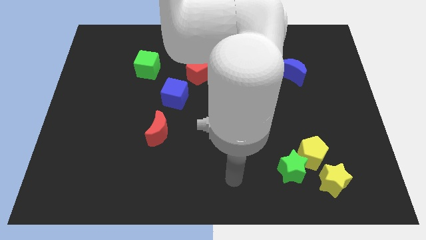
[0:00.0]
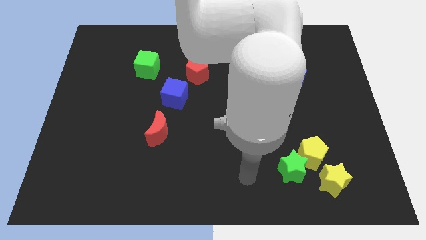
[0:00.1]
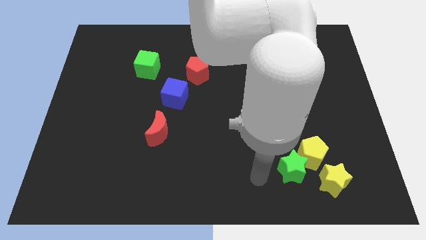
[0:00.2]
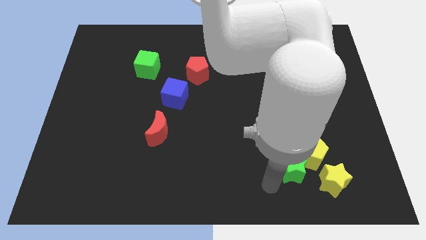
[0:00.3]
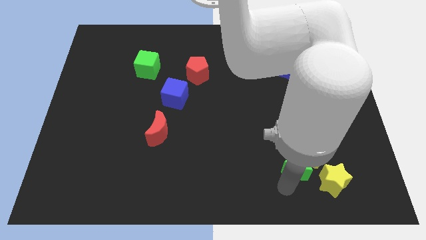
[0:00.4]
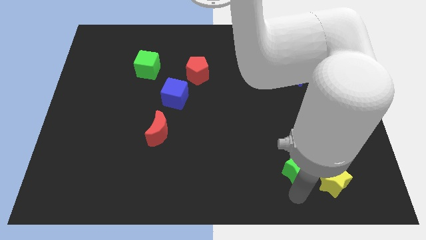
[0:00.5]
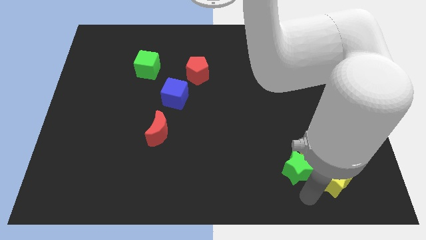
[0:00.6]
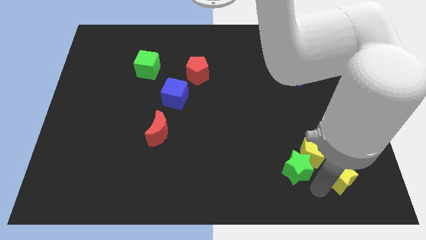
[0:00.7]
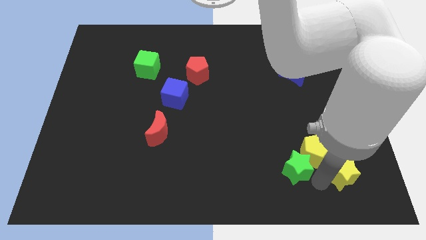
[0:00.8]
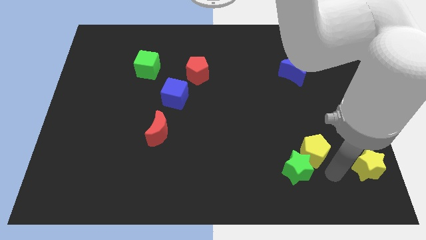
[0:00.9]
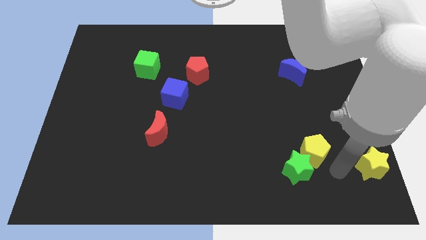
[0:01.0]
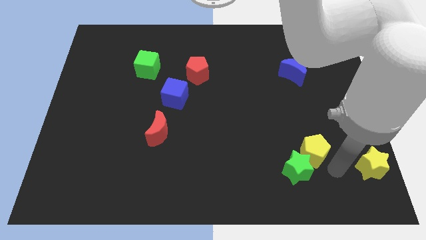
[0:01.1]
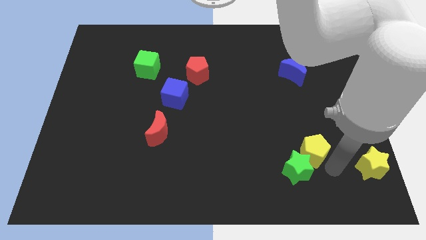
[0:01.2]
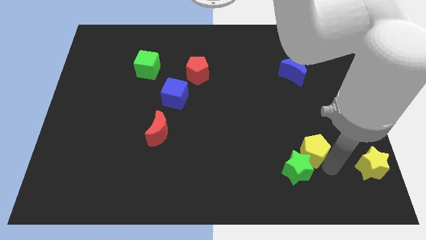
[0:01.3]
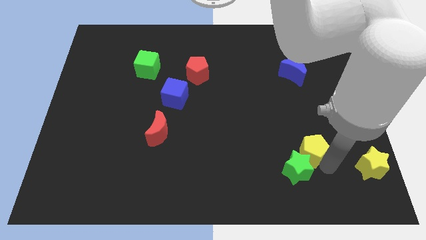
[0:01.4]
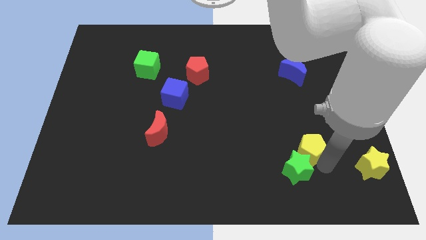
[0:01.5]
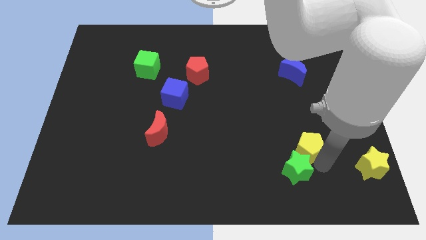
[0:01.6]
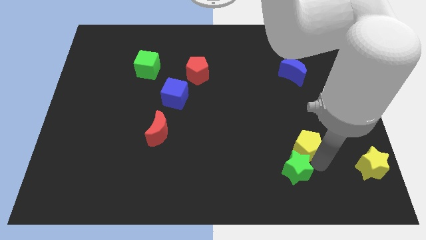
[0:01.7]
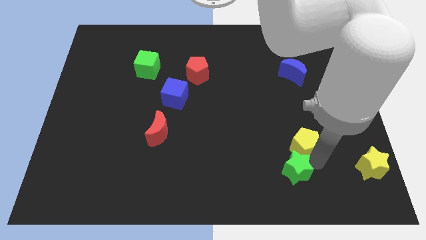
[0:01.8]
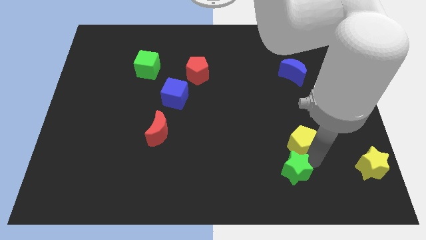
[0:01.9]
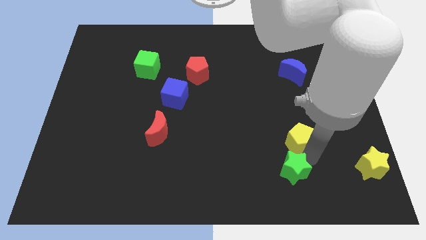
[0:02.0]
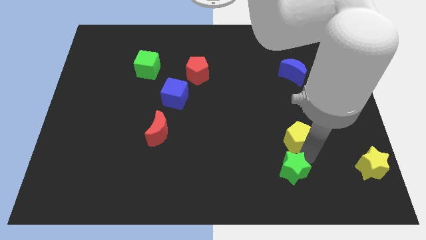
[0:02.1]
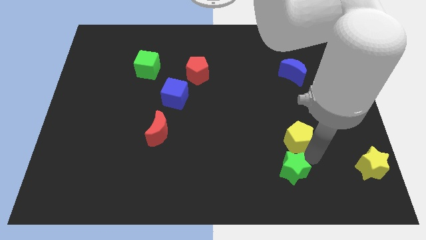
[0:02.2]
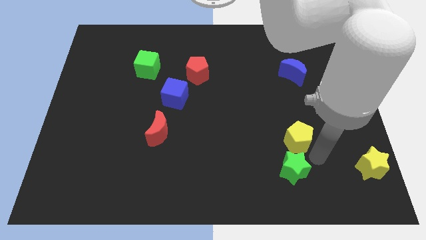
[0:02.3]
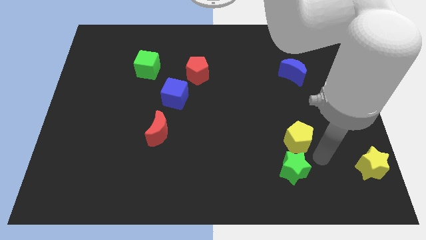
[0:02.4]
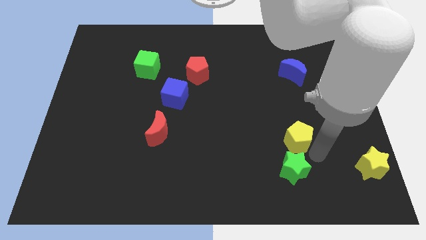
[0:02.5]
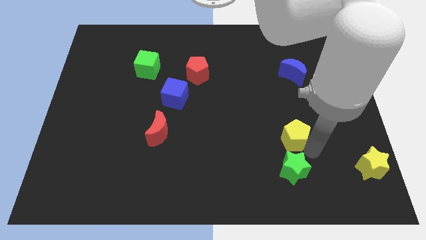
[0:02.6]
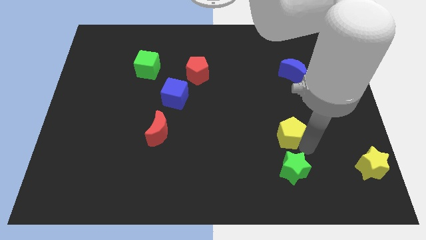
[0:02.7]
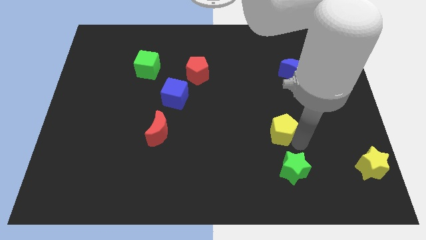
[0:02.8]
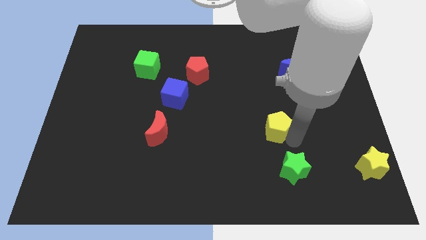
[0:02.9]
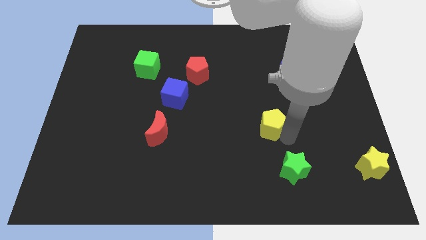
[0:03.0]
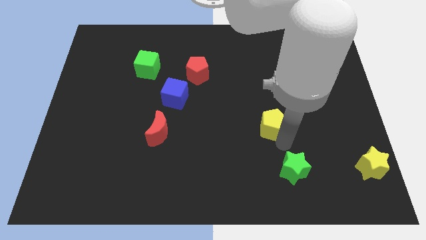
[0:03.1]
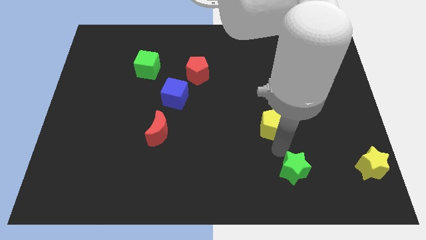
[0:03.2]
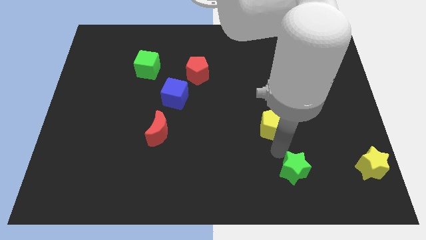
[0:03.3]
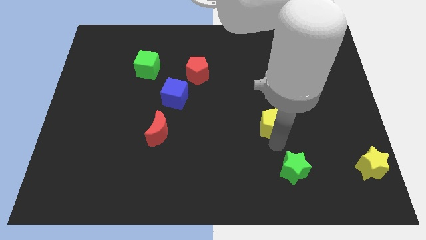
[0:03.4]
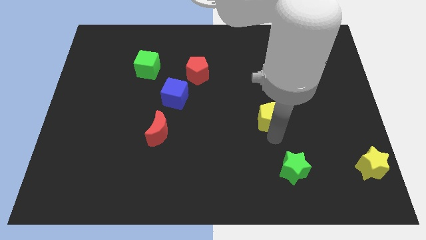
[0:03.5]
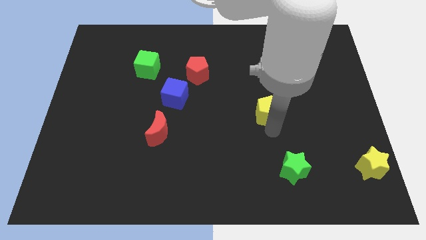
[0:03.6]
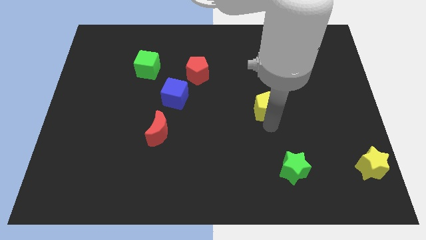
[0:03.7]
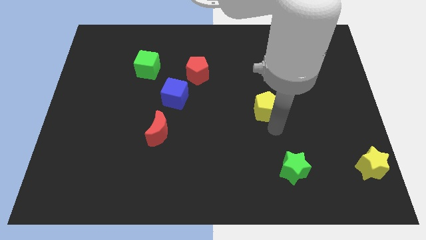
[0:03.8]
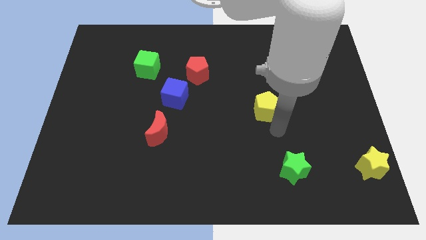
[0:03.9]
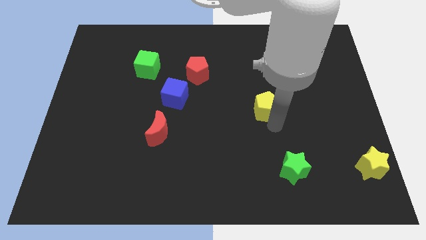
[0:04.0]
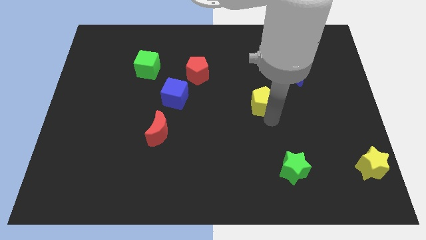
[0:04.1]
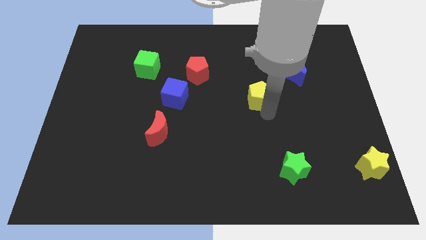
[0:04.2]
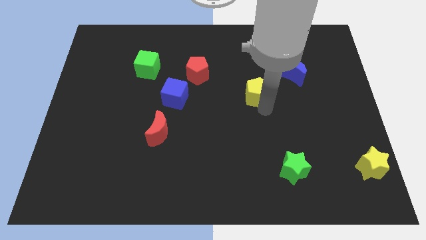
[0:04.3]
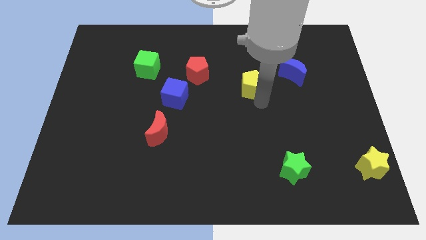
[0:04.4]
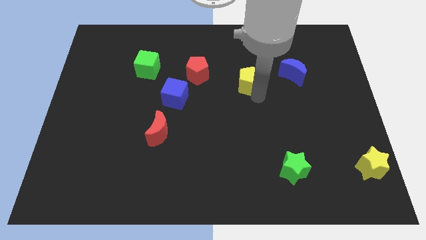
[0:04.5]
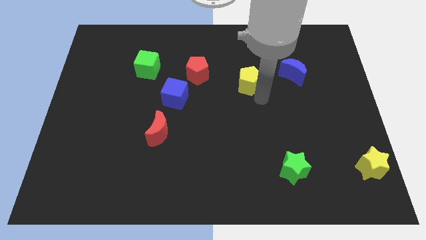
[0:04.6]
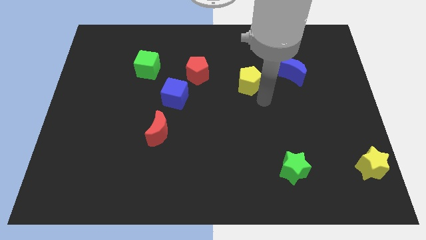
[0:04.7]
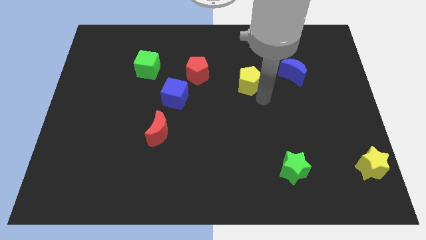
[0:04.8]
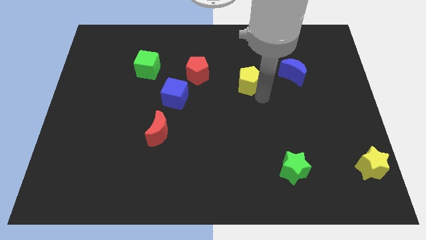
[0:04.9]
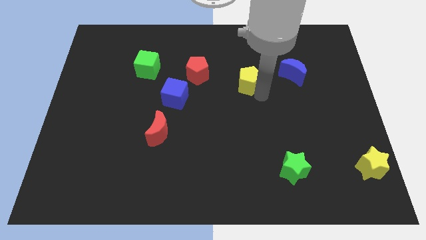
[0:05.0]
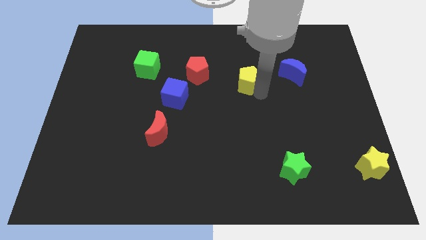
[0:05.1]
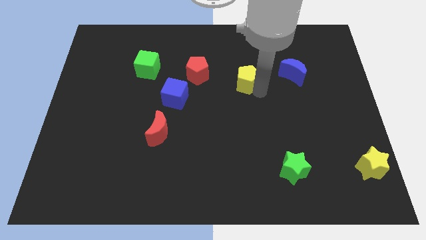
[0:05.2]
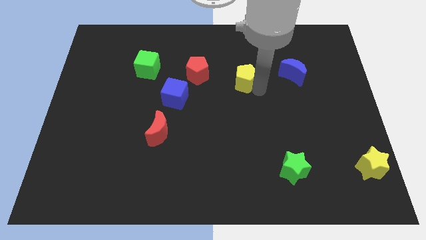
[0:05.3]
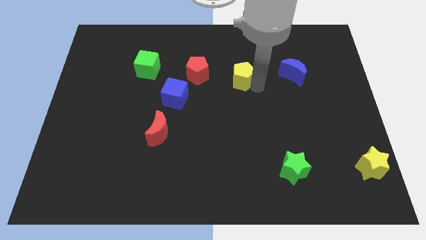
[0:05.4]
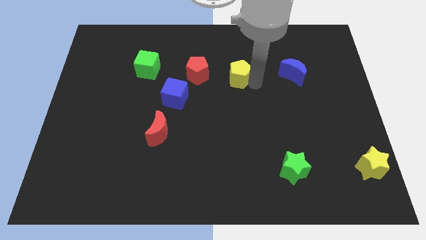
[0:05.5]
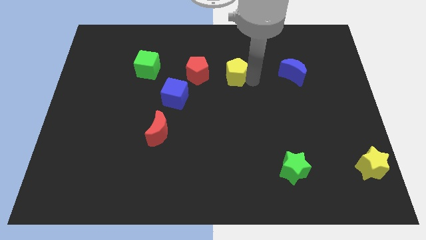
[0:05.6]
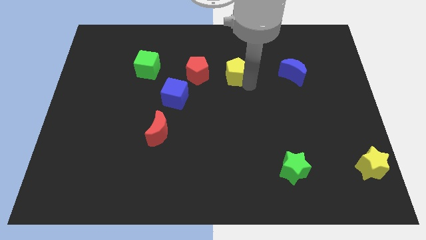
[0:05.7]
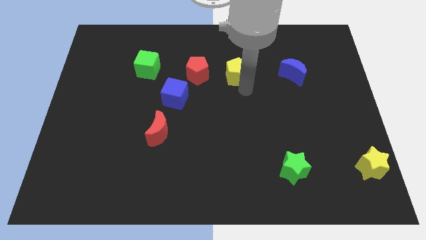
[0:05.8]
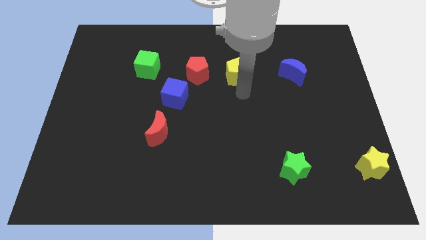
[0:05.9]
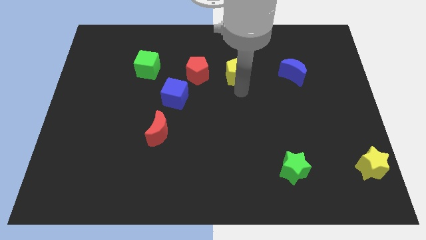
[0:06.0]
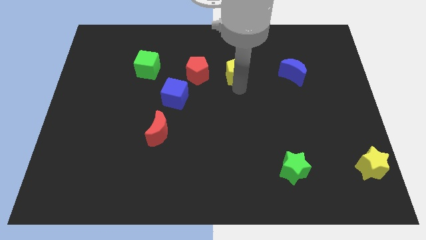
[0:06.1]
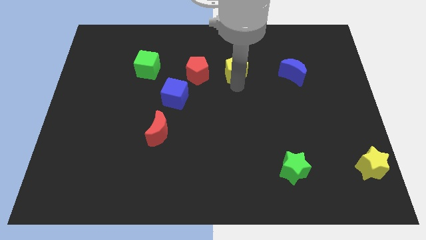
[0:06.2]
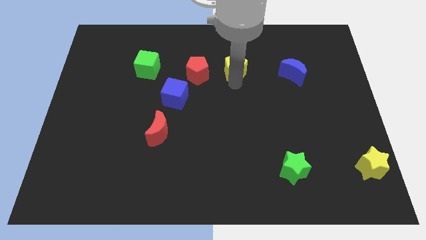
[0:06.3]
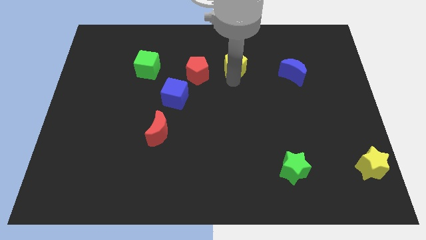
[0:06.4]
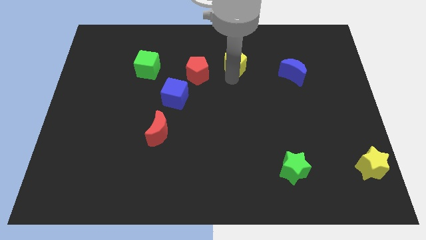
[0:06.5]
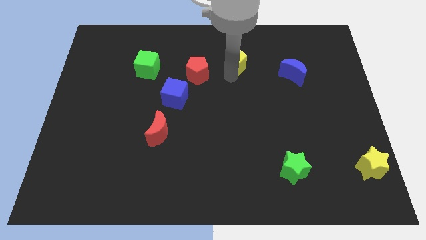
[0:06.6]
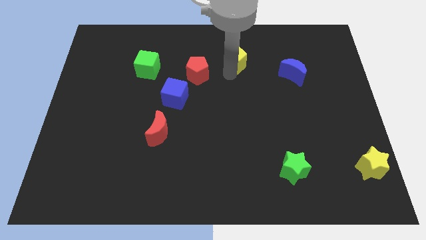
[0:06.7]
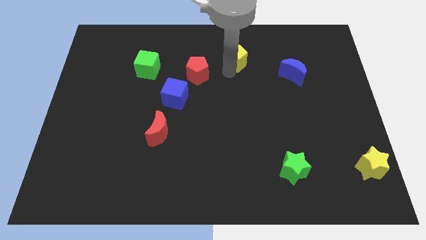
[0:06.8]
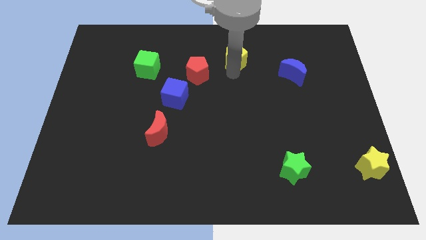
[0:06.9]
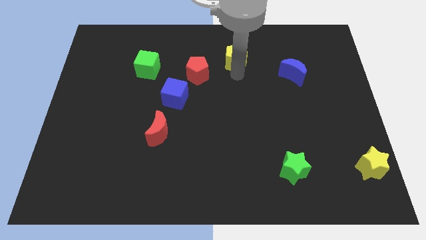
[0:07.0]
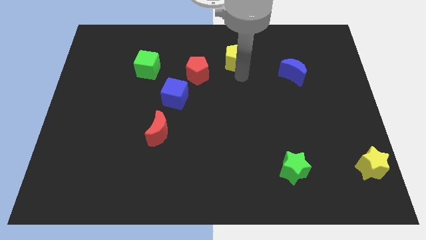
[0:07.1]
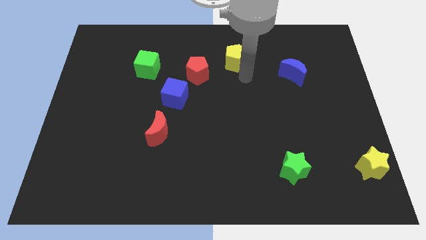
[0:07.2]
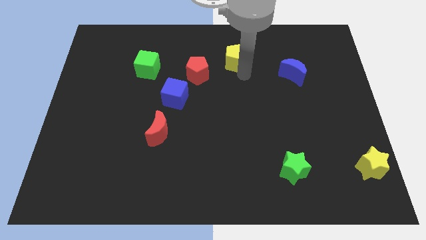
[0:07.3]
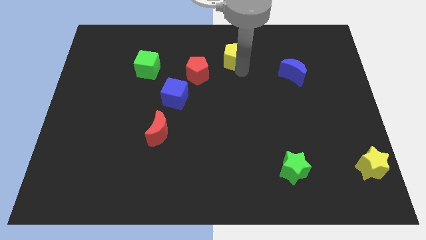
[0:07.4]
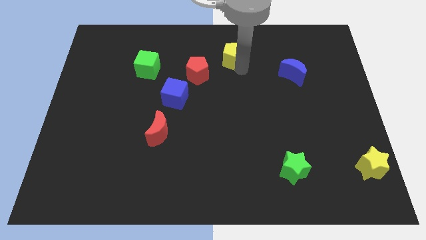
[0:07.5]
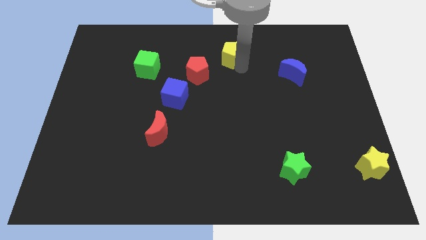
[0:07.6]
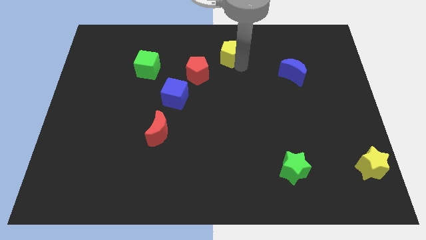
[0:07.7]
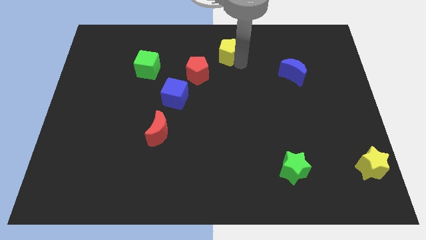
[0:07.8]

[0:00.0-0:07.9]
slide the yellow pentagon to the top side
